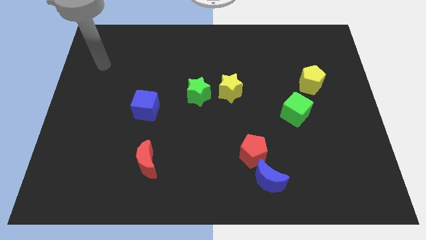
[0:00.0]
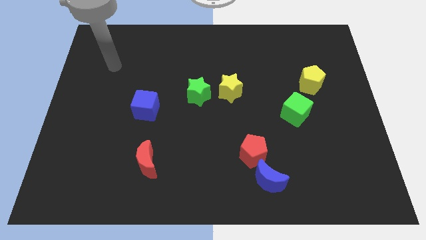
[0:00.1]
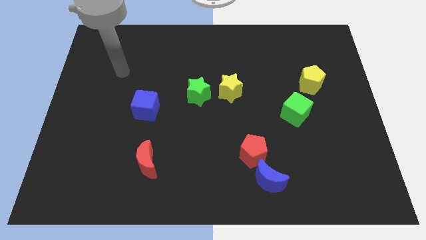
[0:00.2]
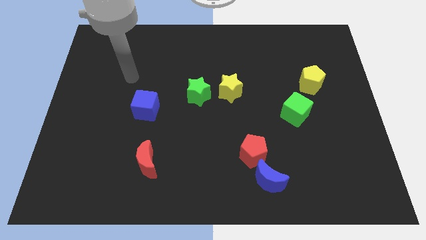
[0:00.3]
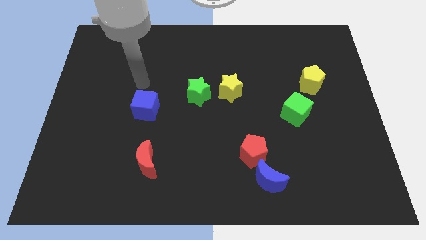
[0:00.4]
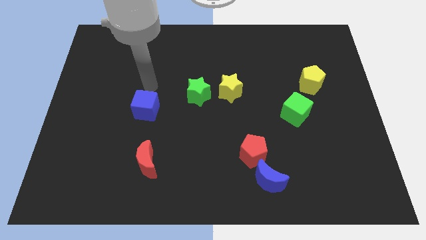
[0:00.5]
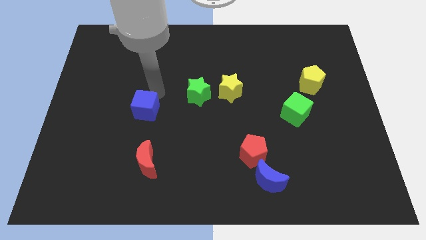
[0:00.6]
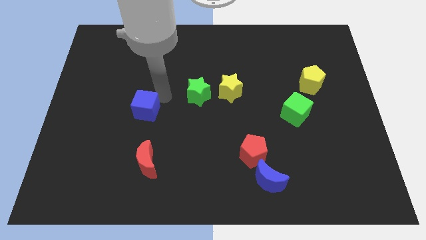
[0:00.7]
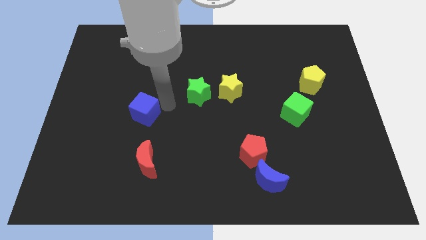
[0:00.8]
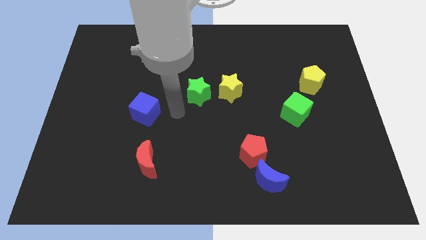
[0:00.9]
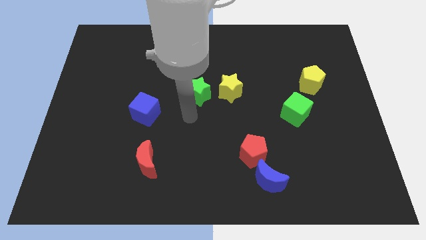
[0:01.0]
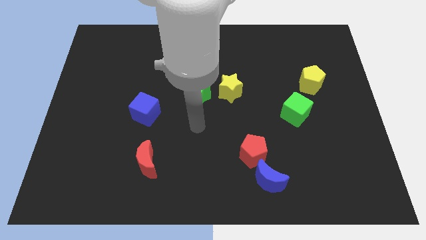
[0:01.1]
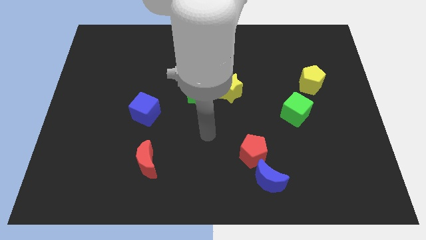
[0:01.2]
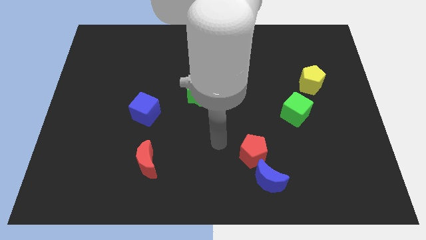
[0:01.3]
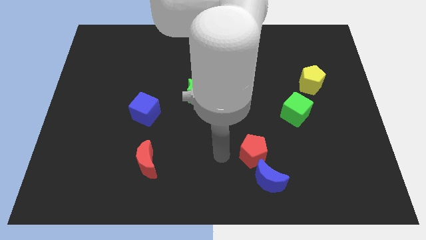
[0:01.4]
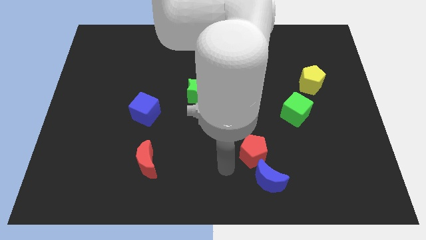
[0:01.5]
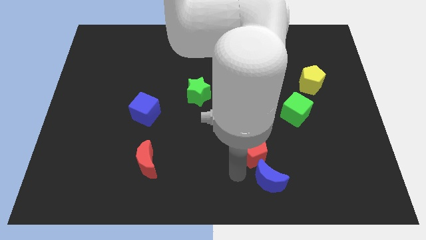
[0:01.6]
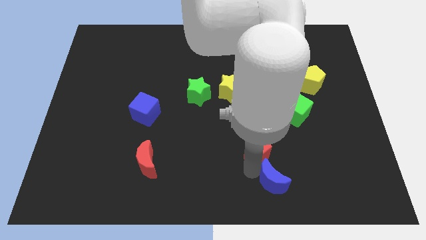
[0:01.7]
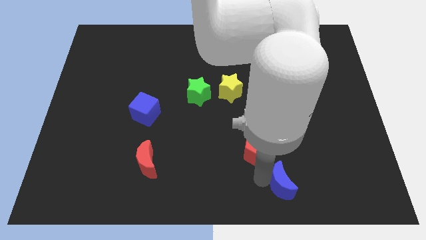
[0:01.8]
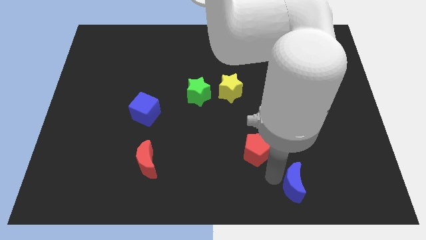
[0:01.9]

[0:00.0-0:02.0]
move the red pentagon away from the blue moon

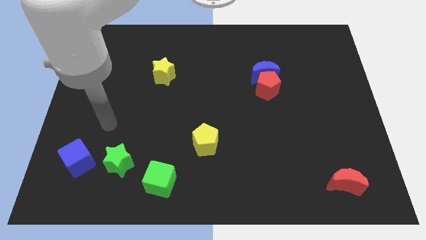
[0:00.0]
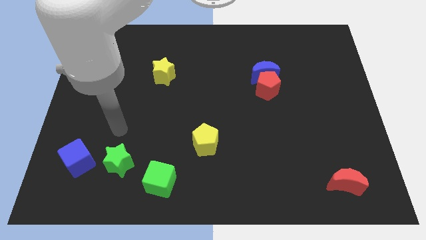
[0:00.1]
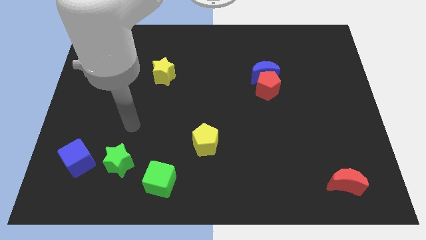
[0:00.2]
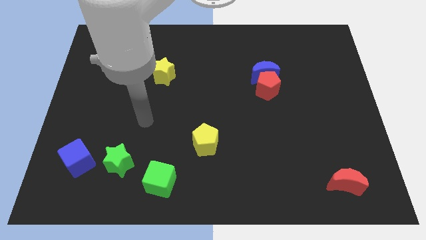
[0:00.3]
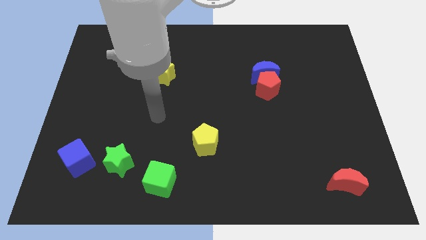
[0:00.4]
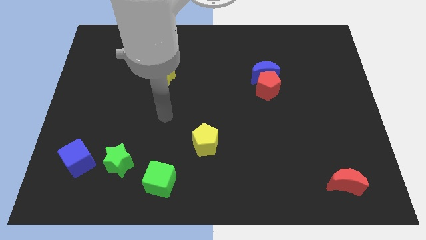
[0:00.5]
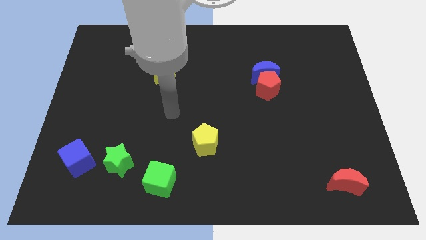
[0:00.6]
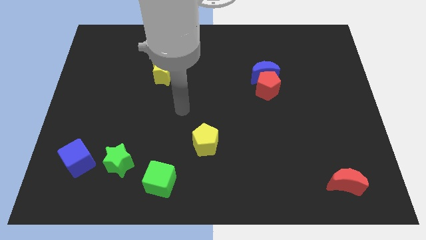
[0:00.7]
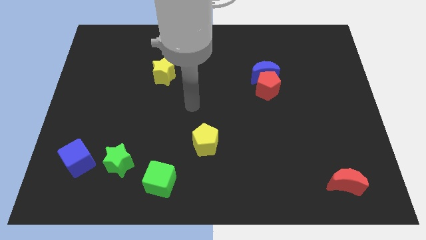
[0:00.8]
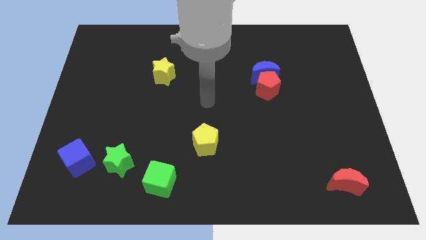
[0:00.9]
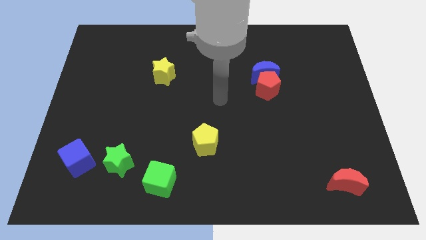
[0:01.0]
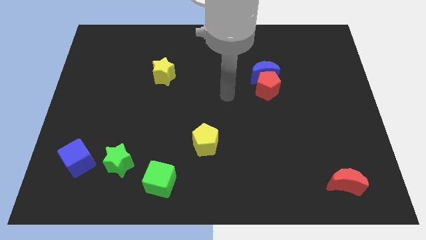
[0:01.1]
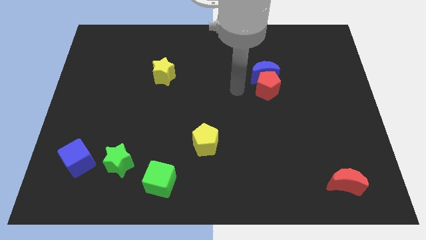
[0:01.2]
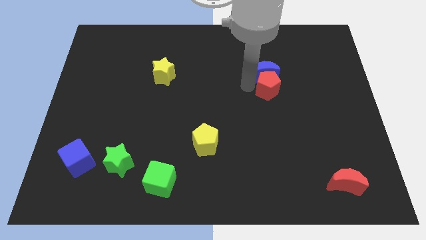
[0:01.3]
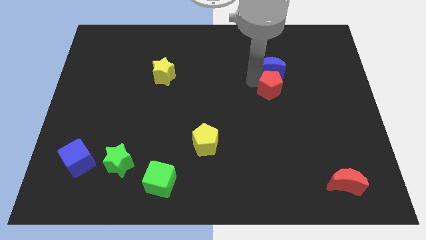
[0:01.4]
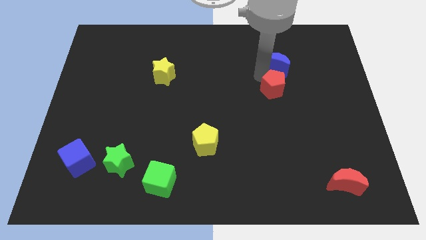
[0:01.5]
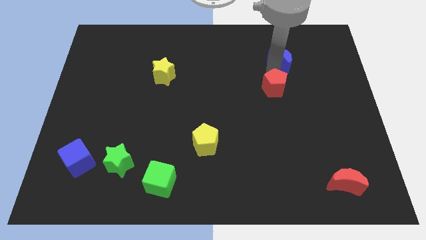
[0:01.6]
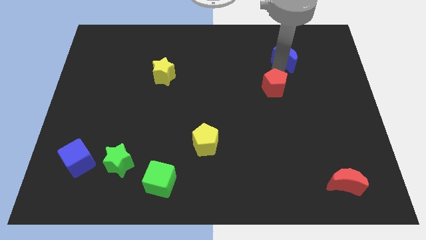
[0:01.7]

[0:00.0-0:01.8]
pull the red pentagon apart from the blue moon

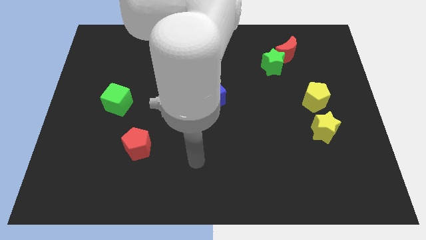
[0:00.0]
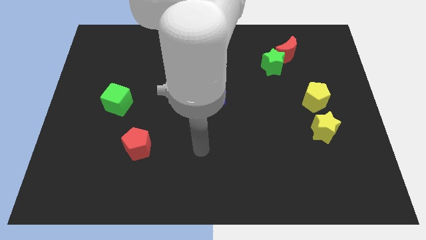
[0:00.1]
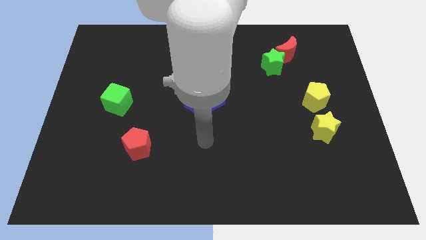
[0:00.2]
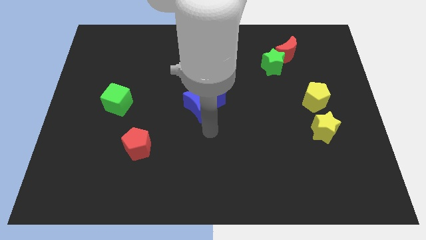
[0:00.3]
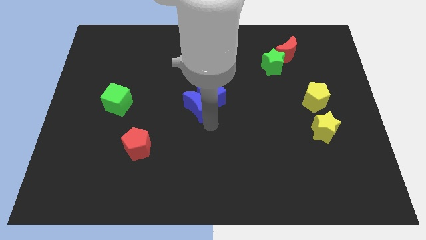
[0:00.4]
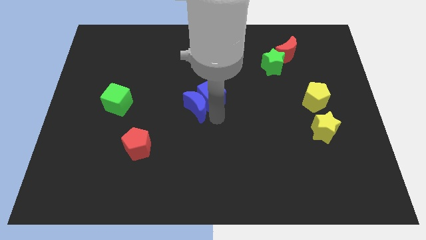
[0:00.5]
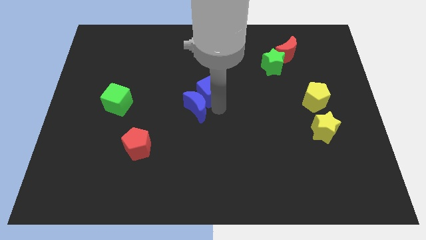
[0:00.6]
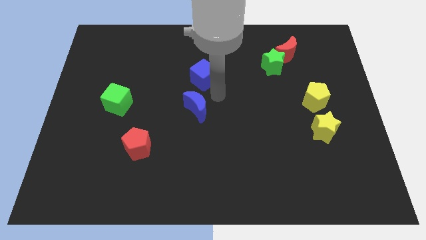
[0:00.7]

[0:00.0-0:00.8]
move the blue moon away from the blue cube

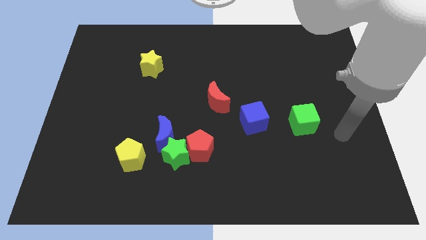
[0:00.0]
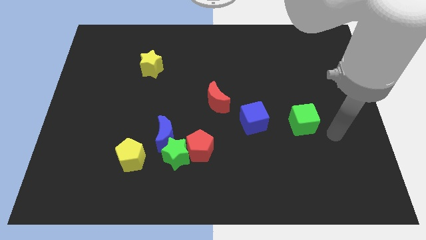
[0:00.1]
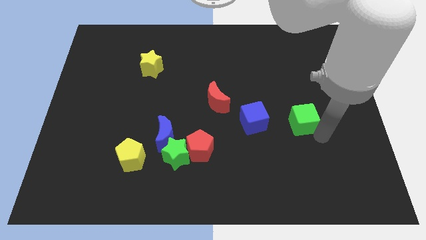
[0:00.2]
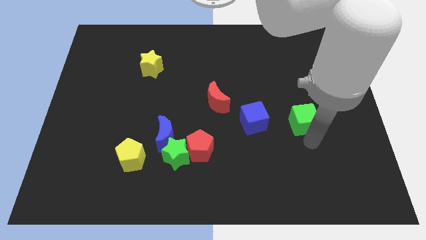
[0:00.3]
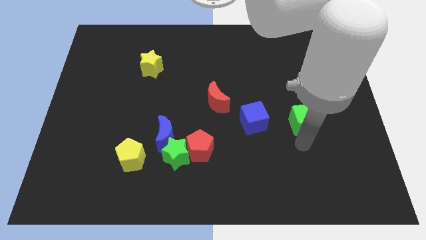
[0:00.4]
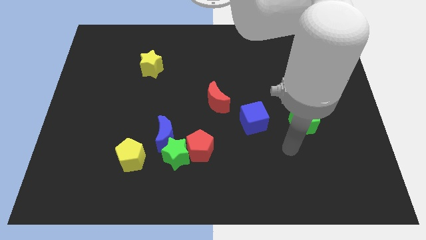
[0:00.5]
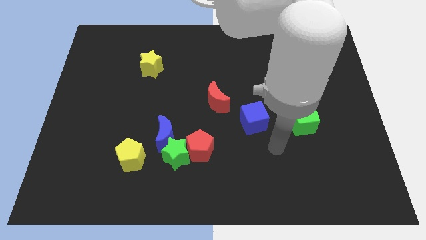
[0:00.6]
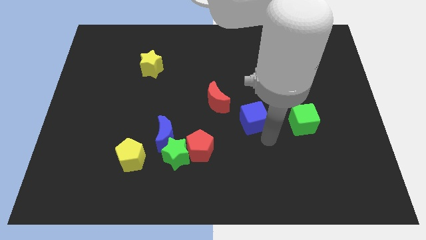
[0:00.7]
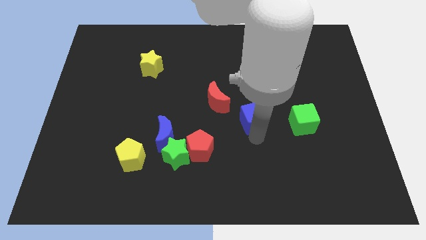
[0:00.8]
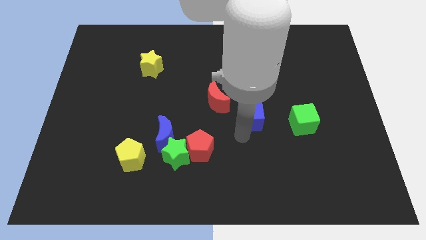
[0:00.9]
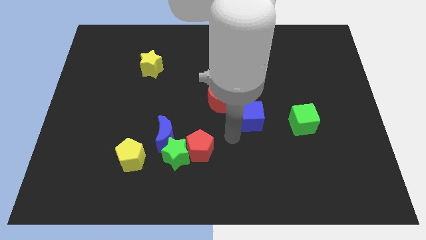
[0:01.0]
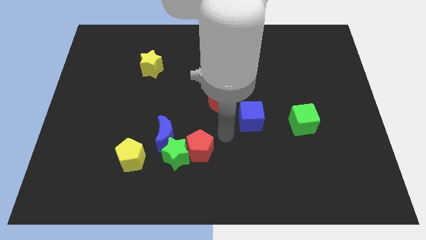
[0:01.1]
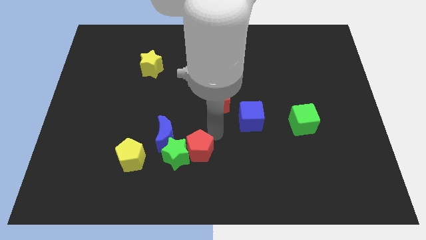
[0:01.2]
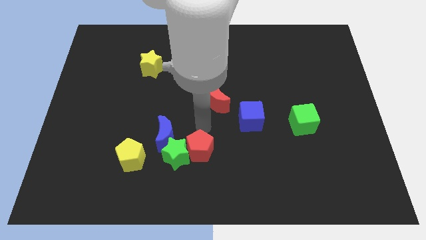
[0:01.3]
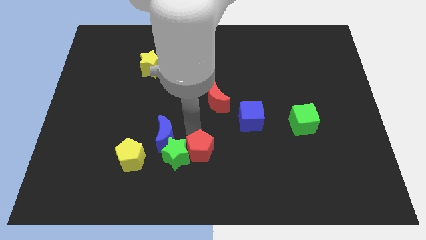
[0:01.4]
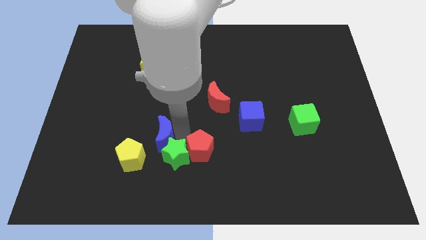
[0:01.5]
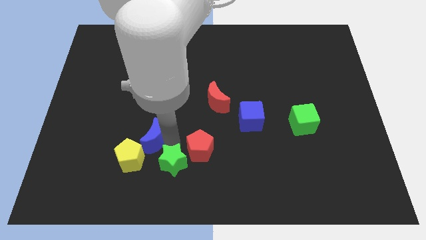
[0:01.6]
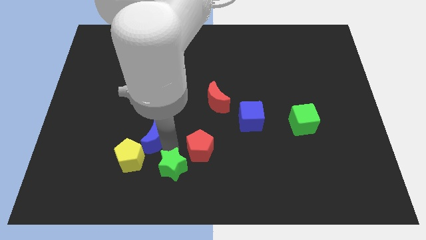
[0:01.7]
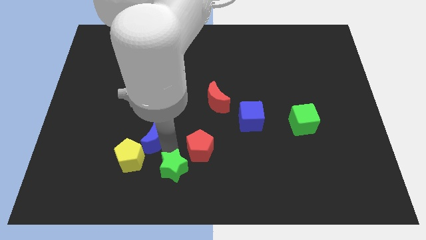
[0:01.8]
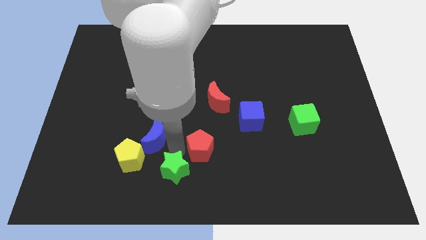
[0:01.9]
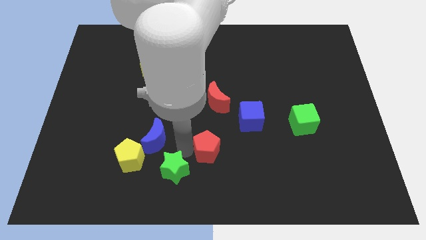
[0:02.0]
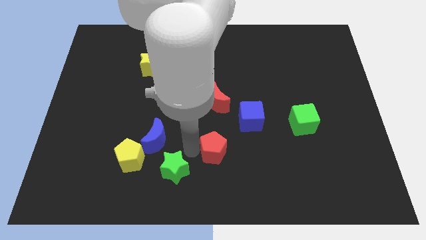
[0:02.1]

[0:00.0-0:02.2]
move the red pentagon away from the green star and blue moon

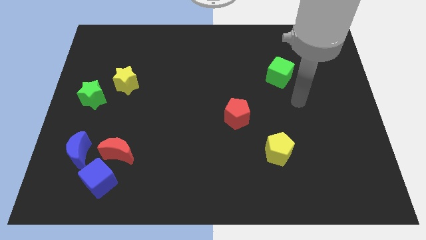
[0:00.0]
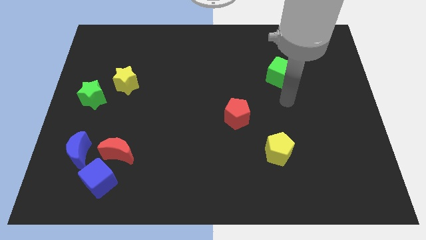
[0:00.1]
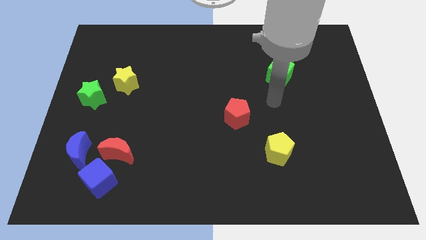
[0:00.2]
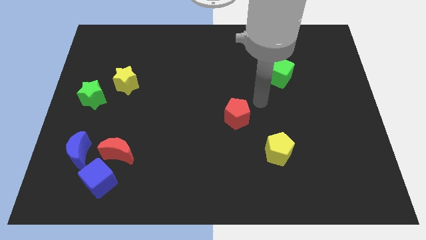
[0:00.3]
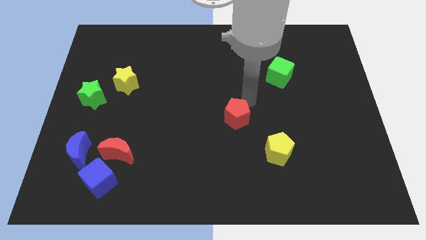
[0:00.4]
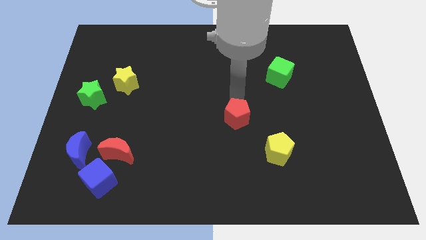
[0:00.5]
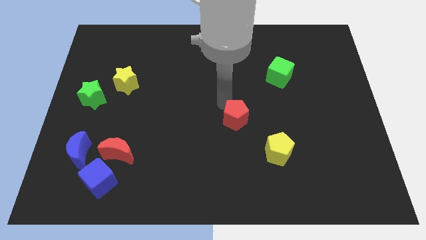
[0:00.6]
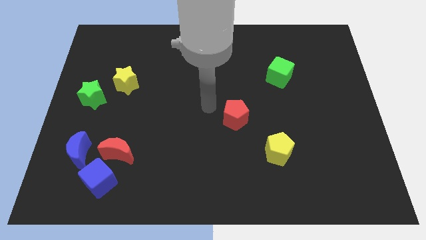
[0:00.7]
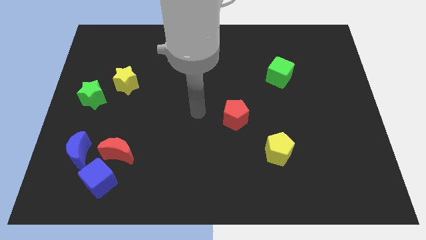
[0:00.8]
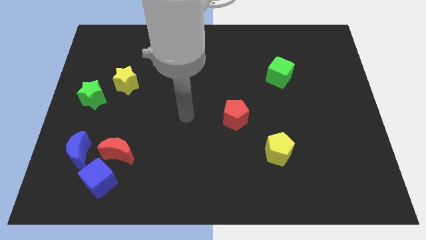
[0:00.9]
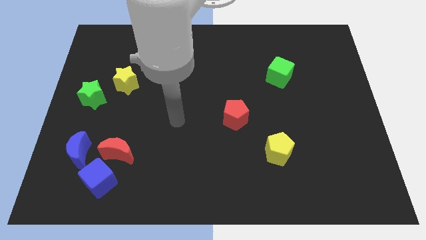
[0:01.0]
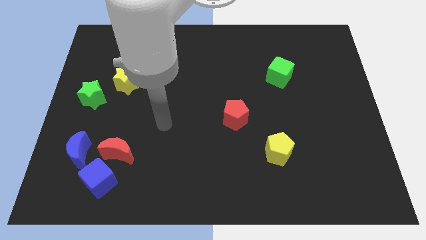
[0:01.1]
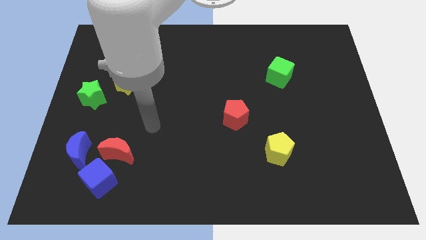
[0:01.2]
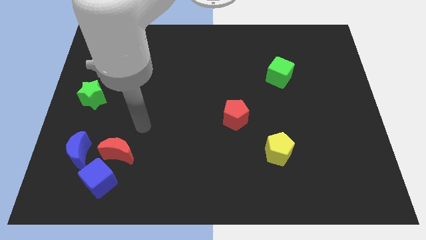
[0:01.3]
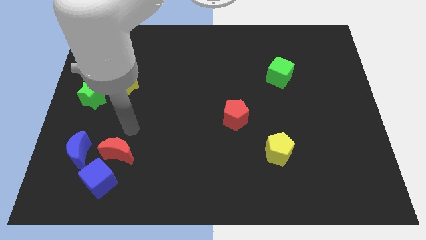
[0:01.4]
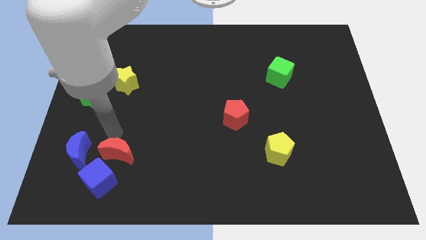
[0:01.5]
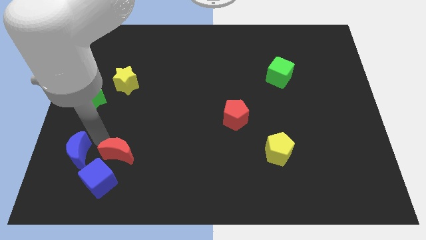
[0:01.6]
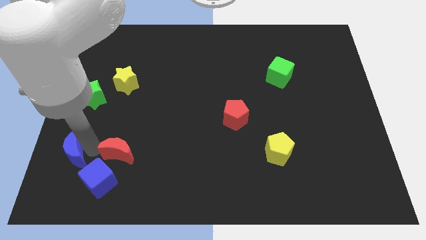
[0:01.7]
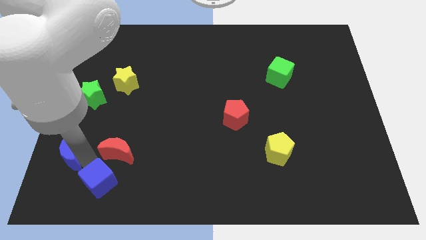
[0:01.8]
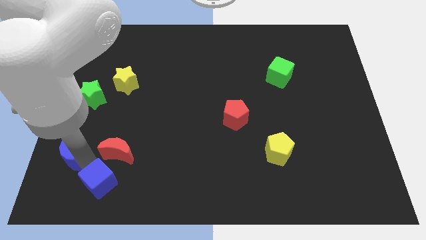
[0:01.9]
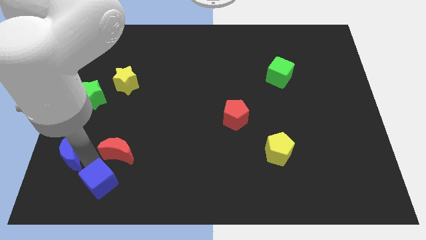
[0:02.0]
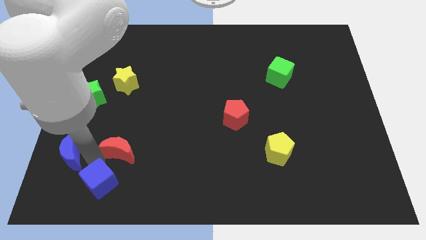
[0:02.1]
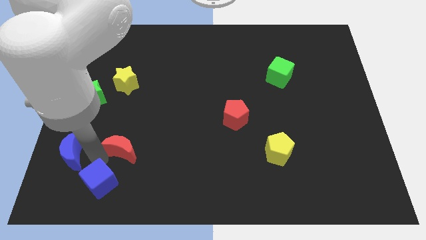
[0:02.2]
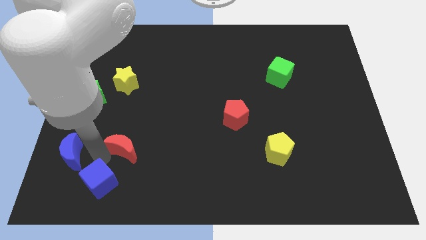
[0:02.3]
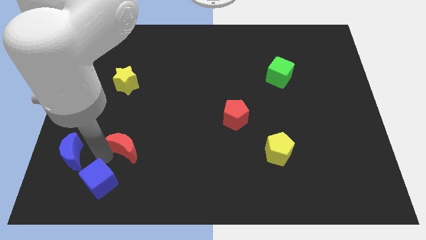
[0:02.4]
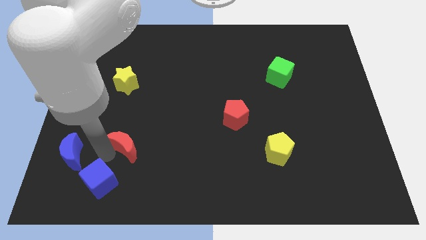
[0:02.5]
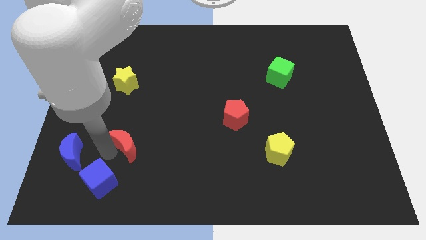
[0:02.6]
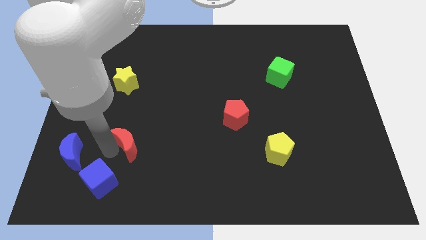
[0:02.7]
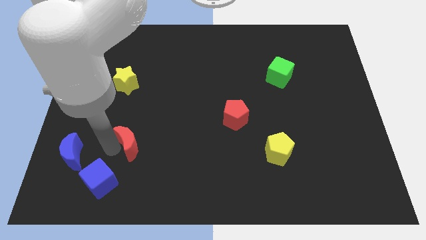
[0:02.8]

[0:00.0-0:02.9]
move the red moon away from the blue cube and blue moon
